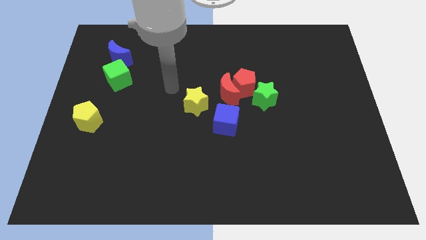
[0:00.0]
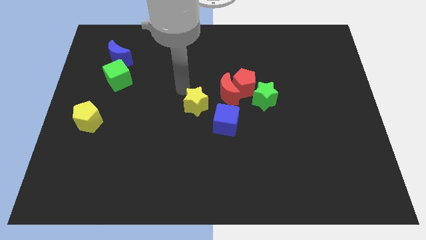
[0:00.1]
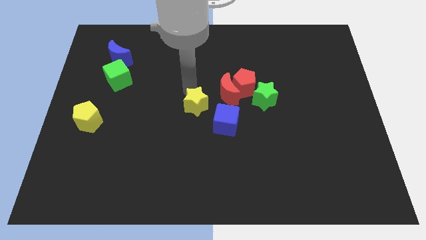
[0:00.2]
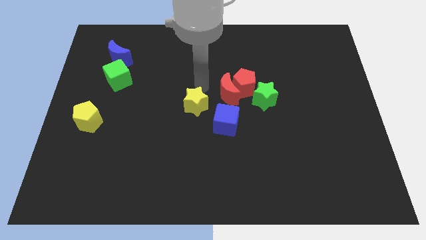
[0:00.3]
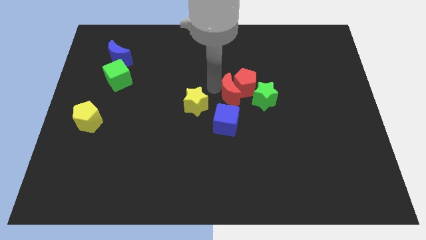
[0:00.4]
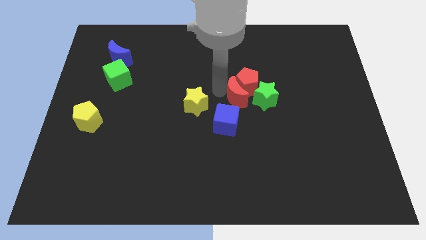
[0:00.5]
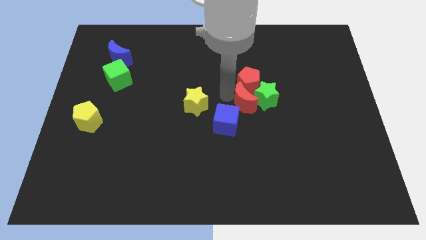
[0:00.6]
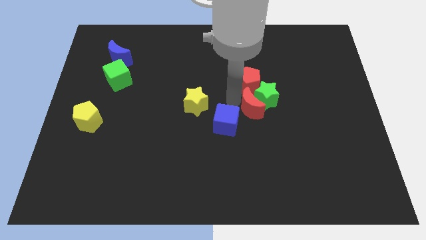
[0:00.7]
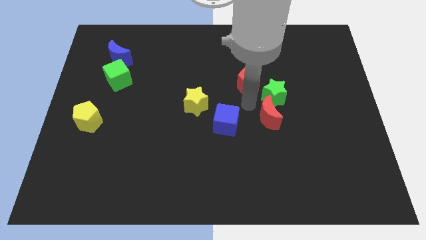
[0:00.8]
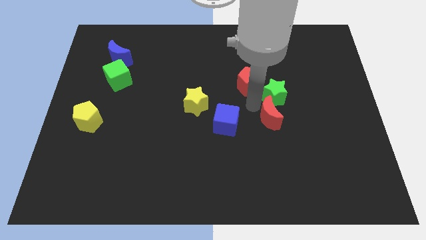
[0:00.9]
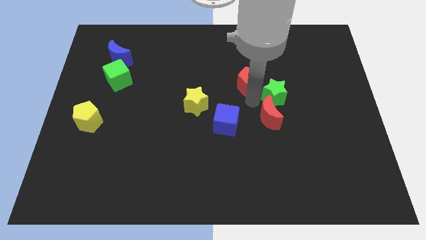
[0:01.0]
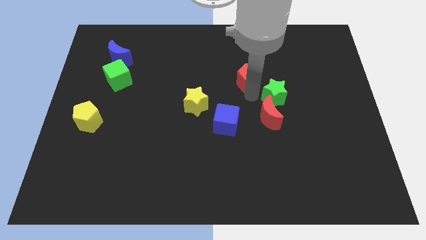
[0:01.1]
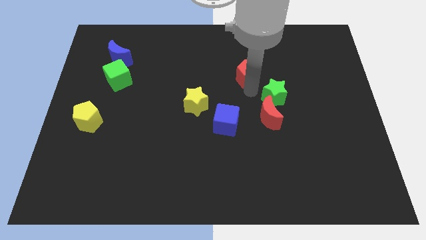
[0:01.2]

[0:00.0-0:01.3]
pull the red pentagon apart from the red moon and green star

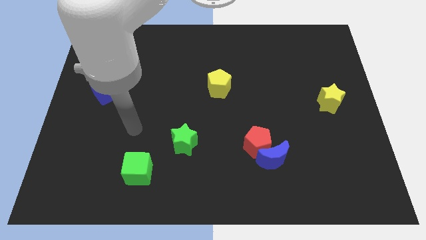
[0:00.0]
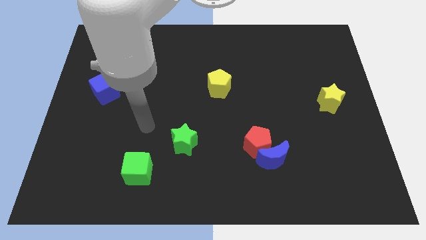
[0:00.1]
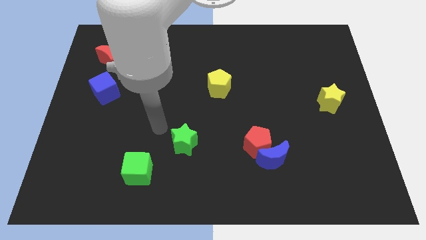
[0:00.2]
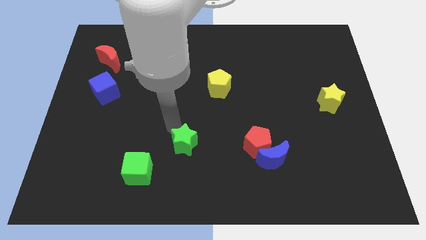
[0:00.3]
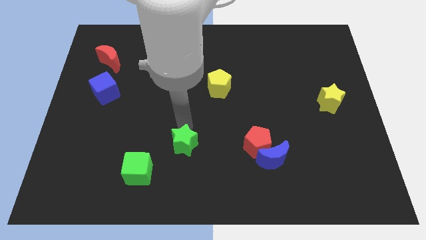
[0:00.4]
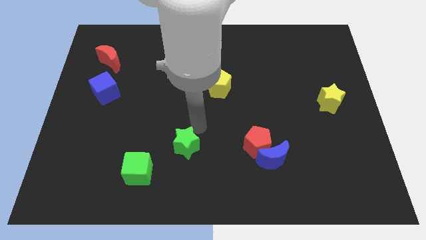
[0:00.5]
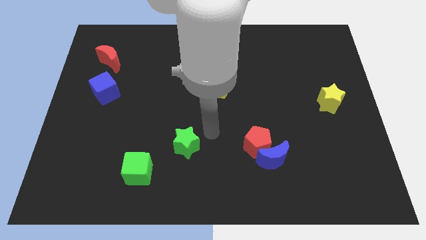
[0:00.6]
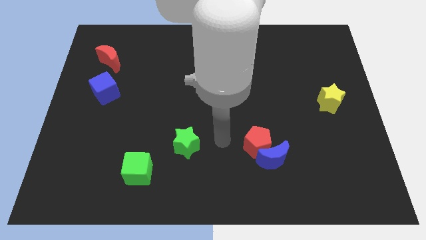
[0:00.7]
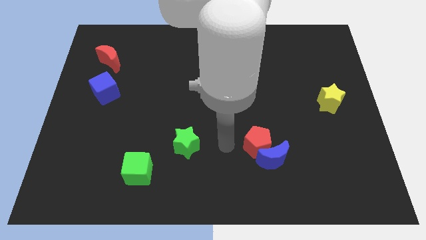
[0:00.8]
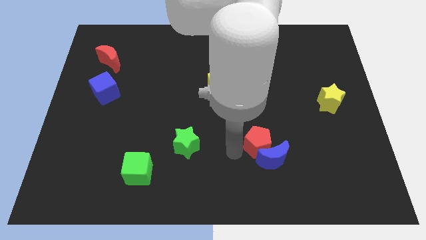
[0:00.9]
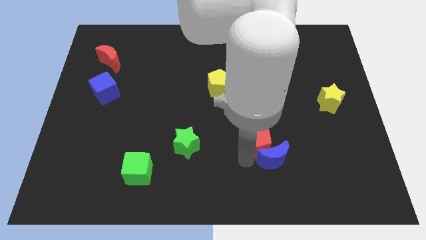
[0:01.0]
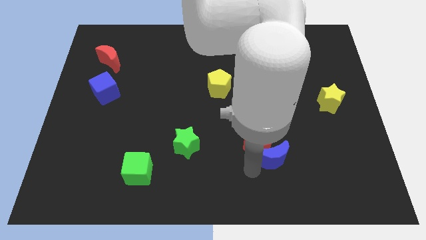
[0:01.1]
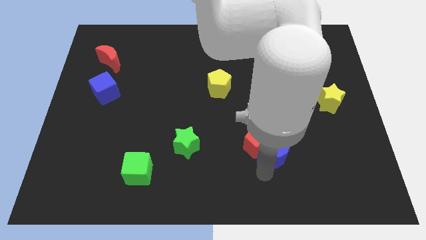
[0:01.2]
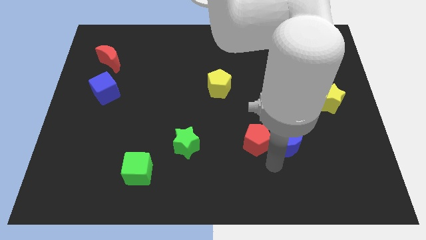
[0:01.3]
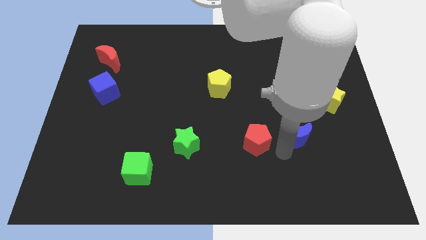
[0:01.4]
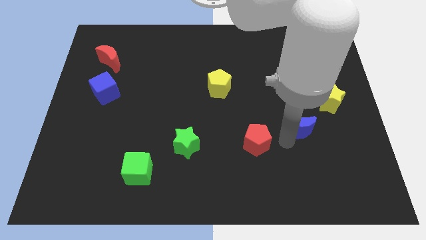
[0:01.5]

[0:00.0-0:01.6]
separate the red pentagon from the blue moon

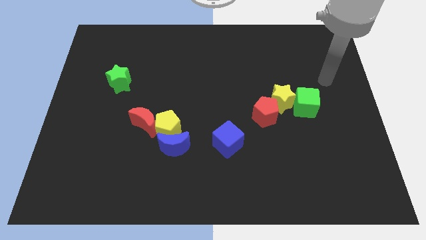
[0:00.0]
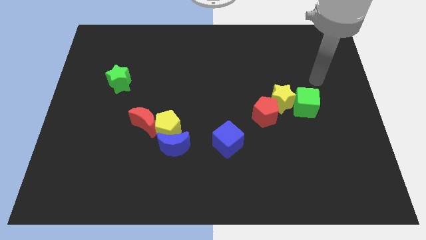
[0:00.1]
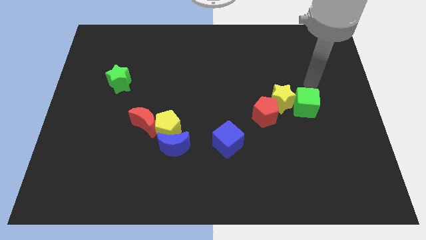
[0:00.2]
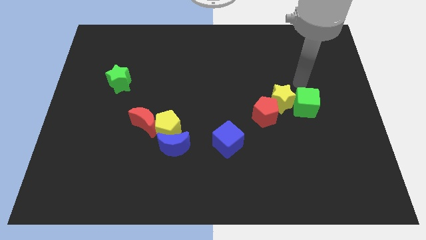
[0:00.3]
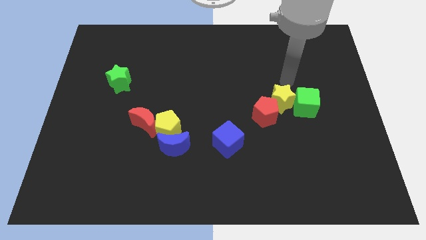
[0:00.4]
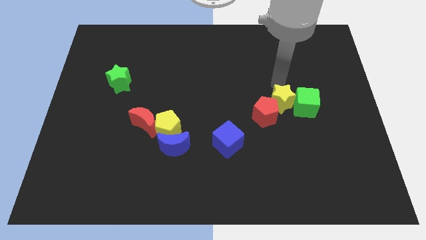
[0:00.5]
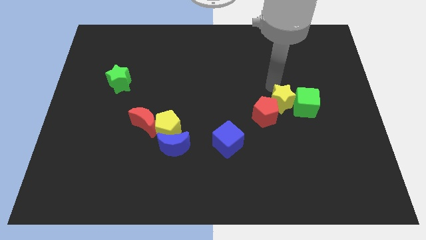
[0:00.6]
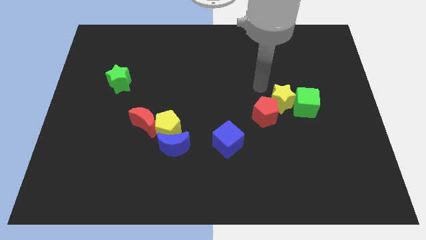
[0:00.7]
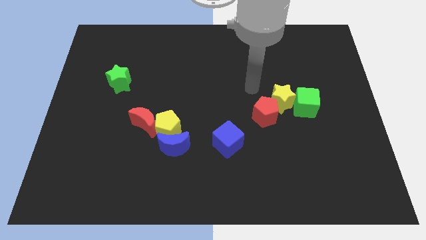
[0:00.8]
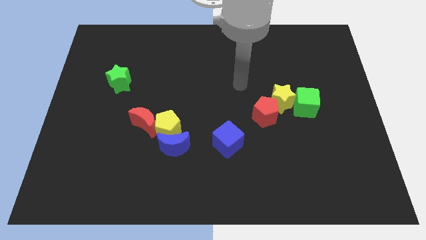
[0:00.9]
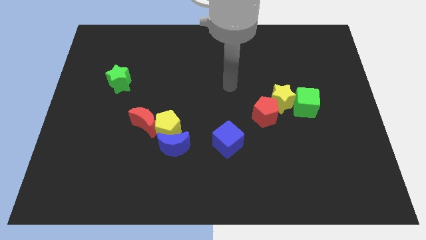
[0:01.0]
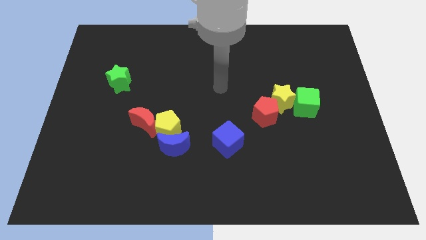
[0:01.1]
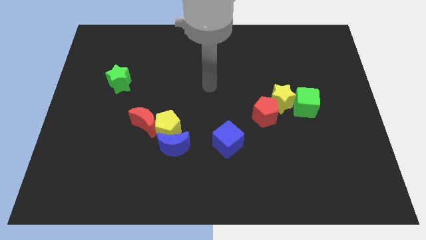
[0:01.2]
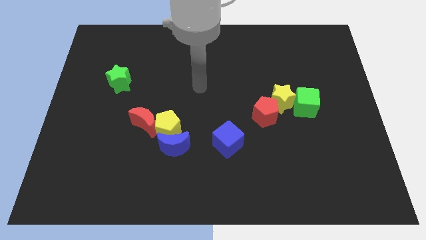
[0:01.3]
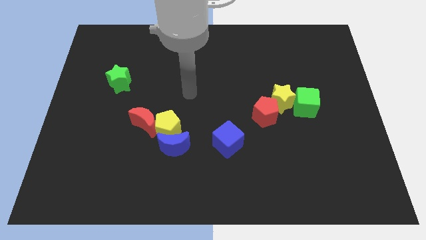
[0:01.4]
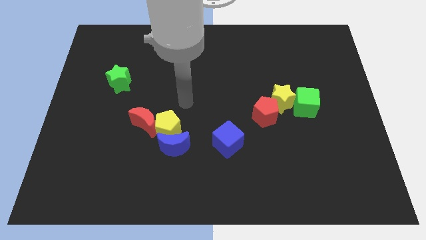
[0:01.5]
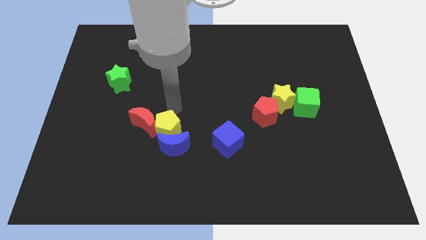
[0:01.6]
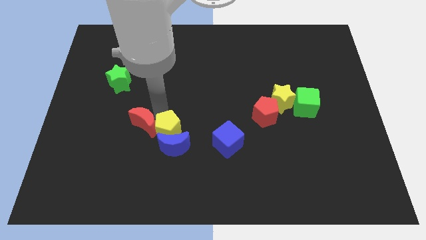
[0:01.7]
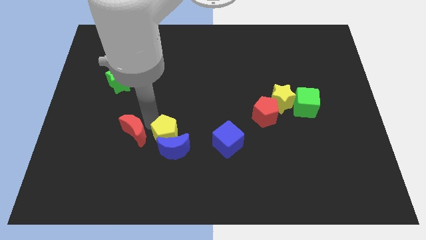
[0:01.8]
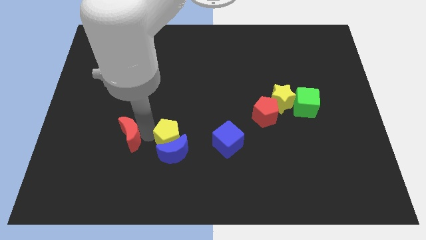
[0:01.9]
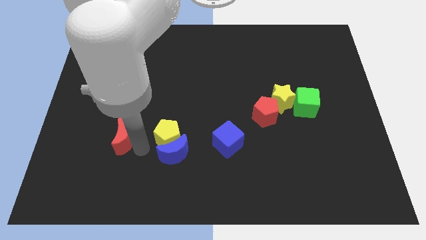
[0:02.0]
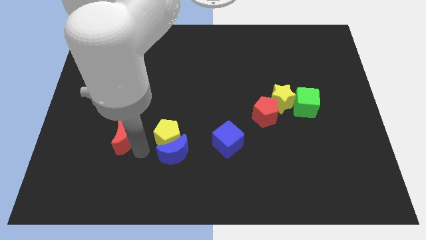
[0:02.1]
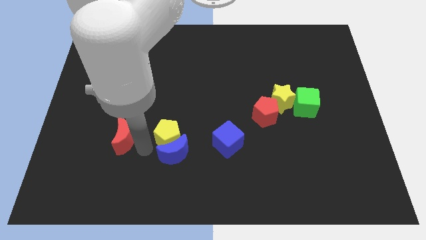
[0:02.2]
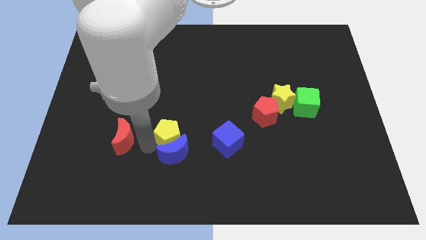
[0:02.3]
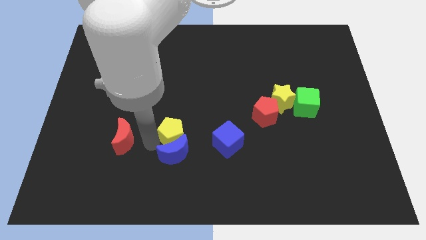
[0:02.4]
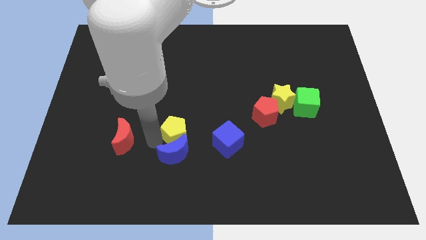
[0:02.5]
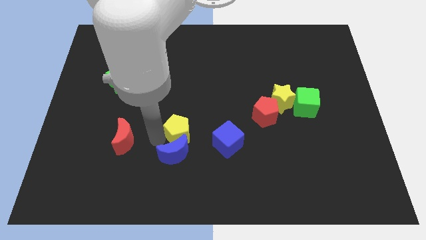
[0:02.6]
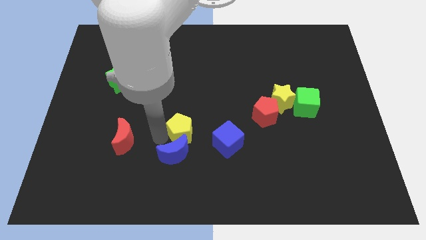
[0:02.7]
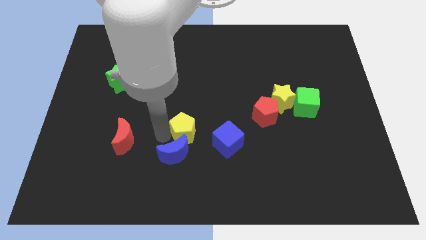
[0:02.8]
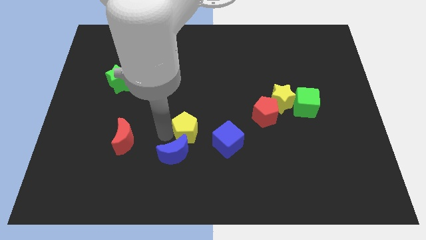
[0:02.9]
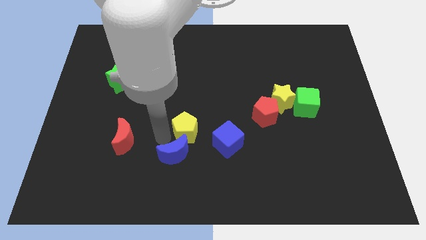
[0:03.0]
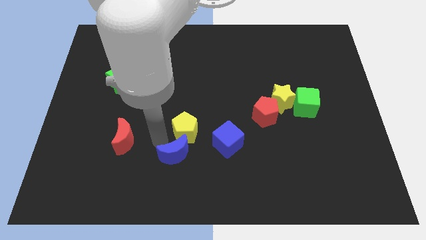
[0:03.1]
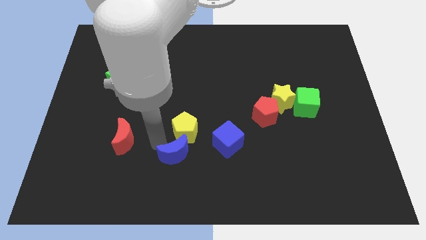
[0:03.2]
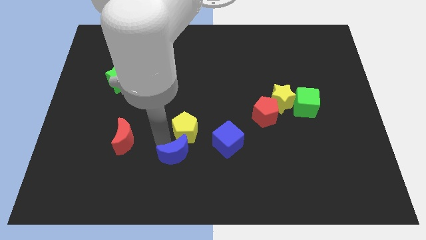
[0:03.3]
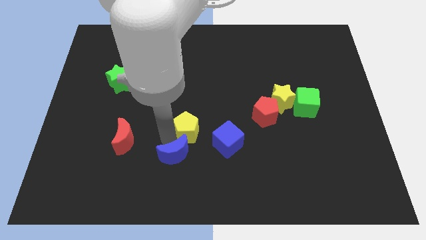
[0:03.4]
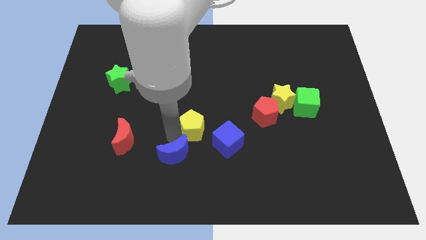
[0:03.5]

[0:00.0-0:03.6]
move the yellow pentagon away from the blue moon and red moon

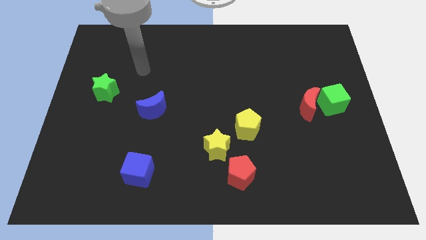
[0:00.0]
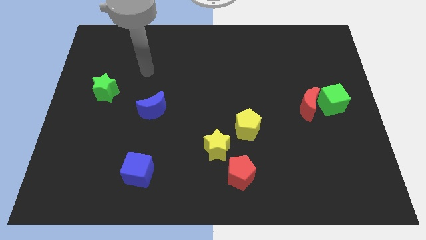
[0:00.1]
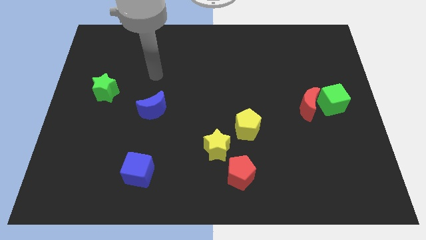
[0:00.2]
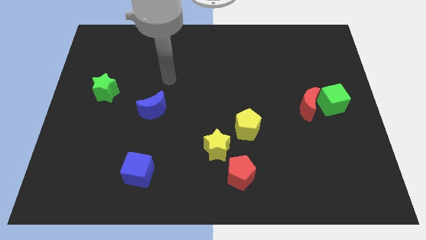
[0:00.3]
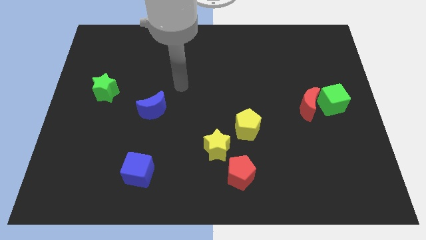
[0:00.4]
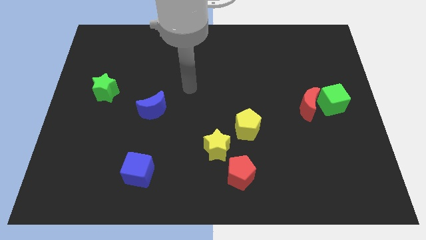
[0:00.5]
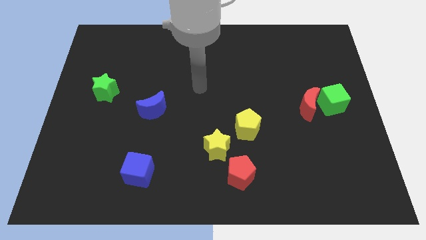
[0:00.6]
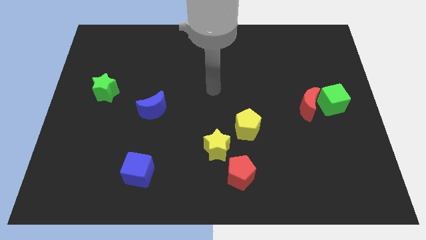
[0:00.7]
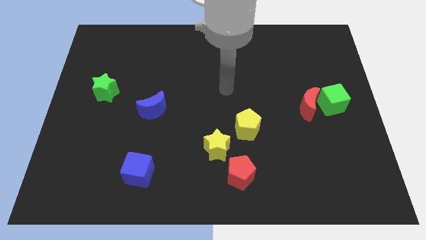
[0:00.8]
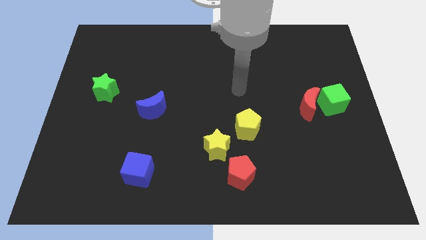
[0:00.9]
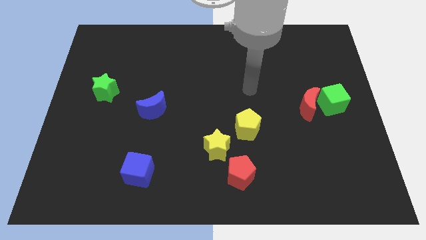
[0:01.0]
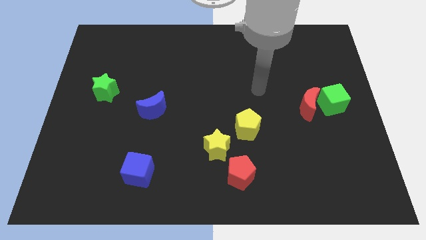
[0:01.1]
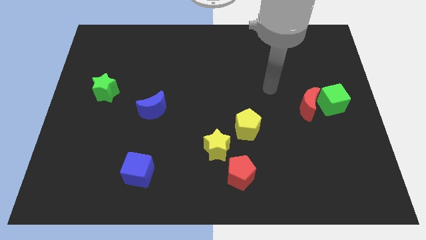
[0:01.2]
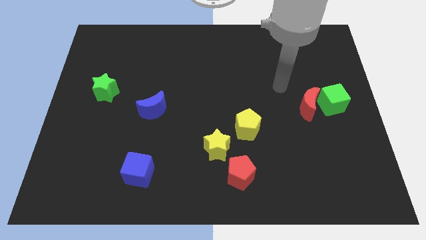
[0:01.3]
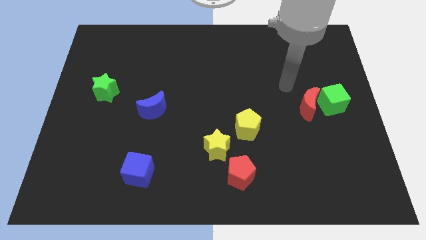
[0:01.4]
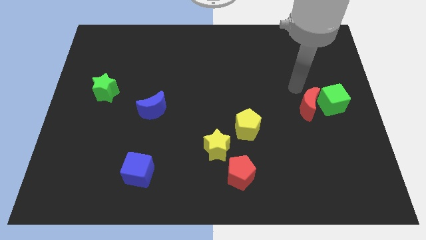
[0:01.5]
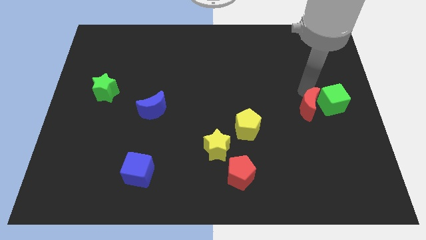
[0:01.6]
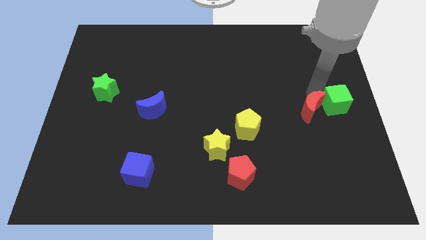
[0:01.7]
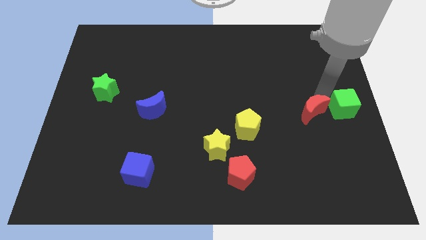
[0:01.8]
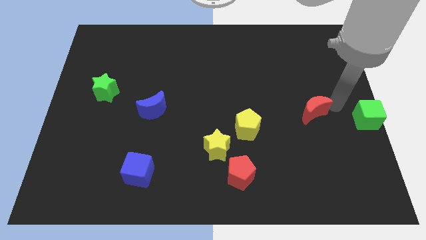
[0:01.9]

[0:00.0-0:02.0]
move the red moon away from the green cube

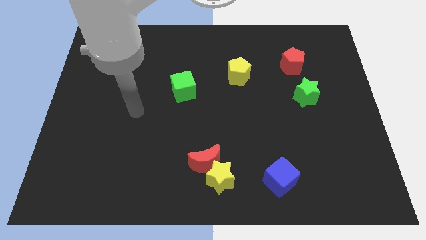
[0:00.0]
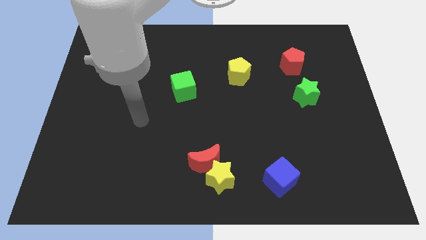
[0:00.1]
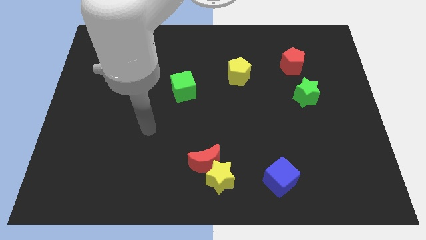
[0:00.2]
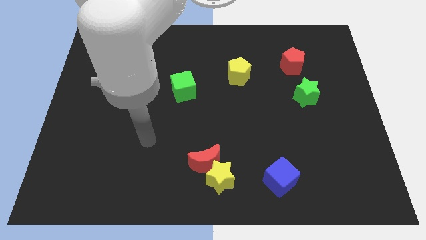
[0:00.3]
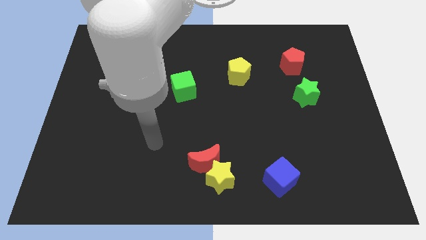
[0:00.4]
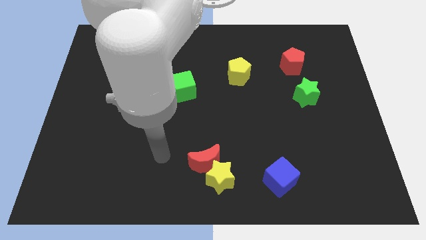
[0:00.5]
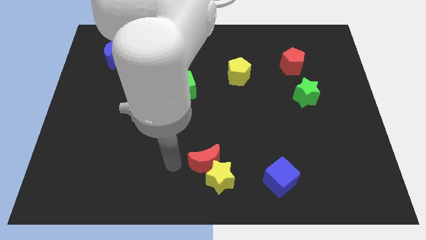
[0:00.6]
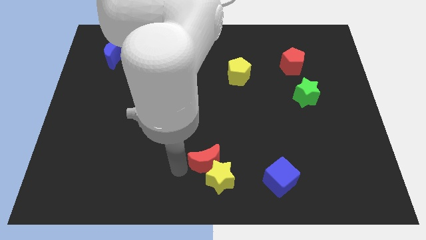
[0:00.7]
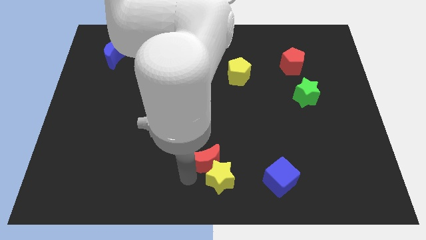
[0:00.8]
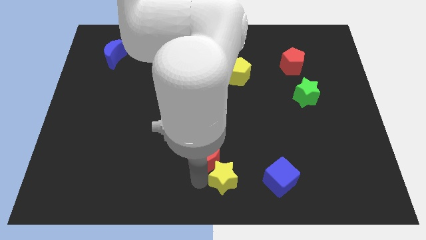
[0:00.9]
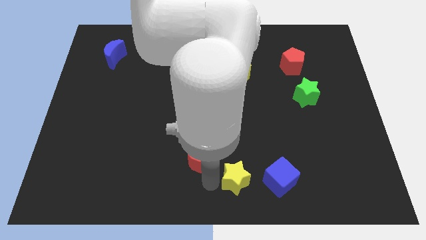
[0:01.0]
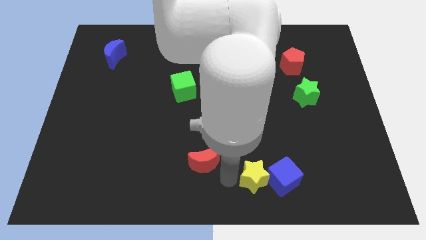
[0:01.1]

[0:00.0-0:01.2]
move the red moon away from the yellow star
